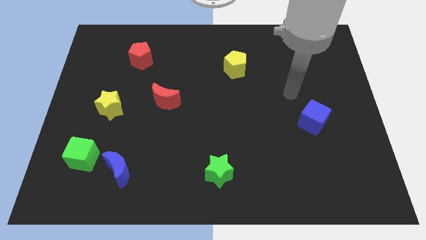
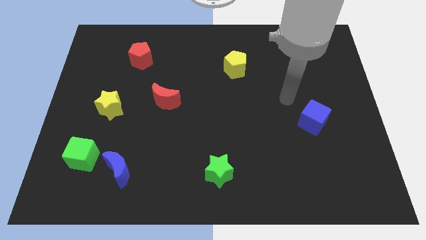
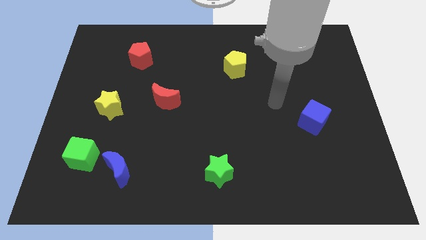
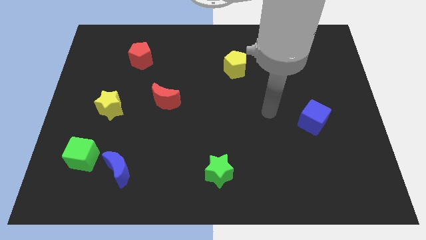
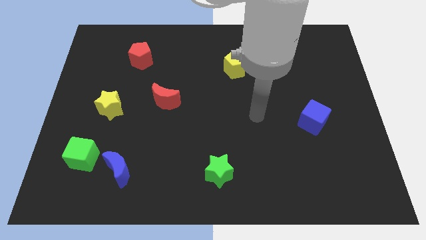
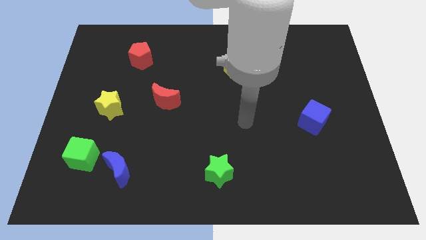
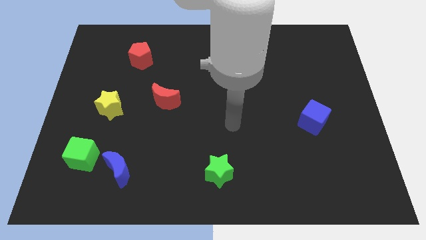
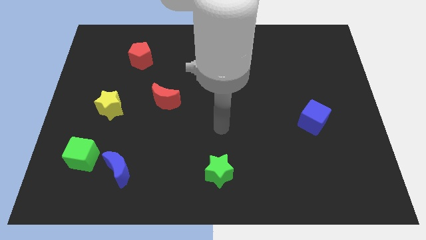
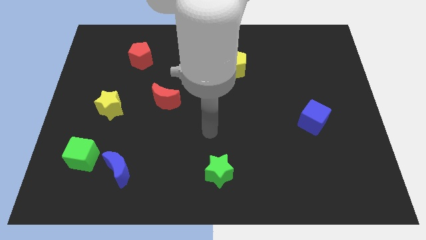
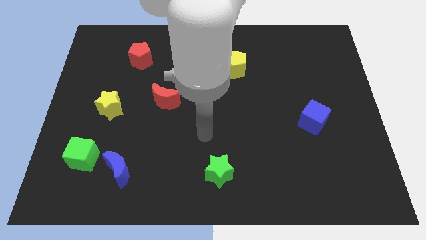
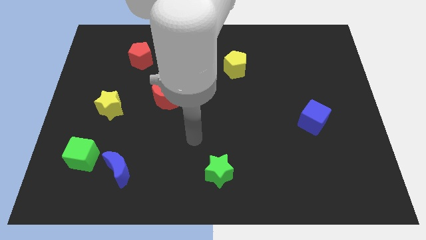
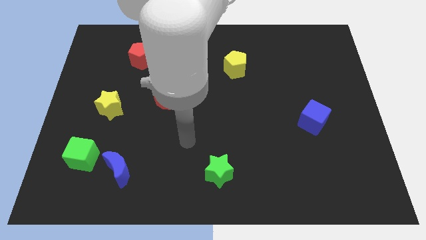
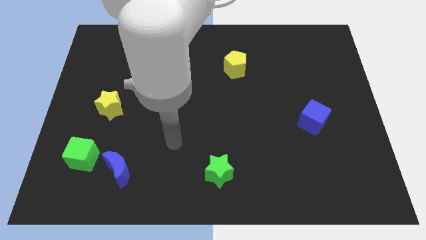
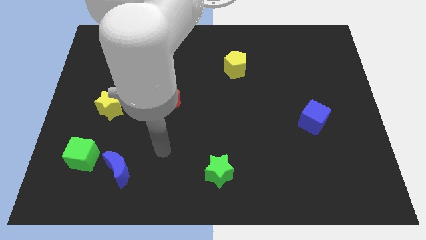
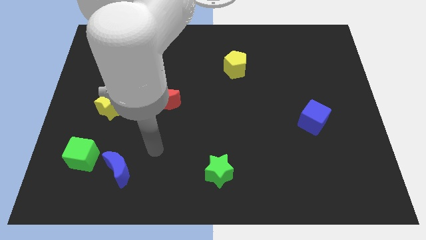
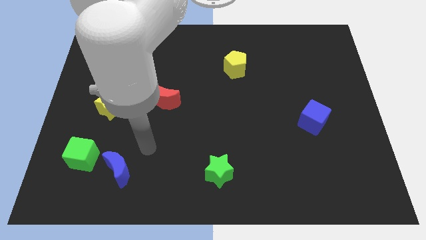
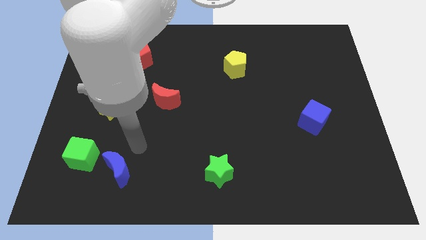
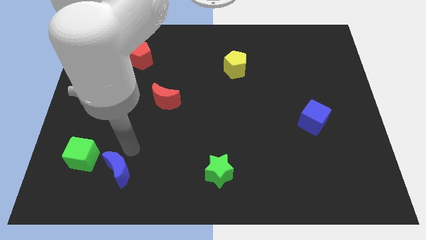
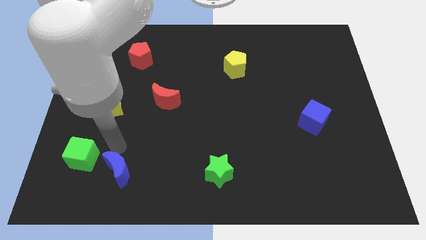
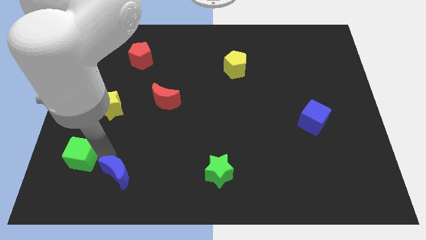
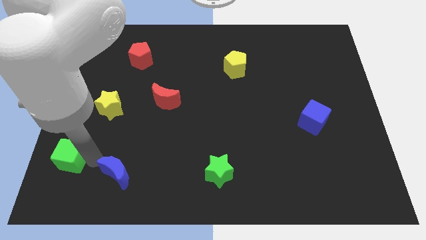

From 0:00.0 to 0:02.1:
move the blue moon away from the green cube

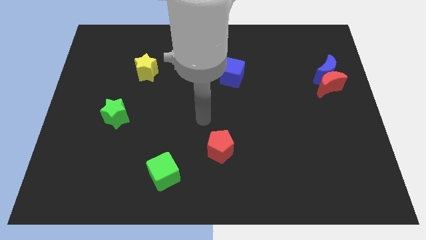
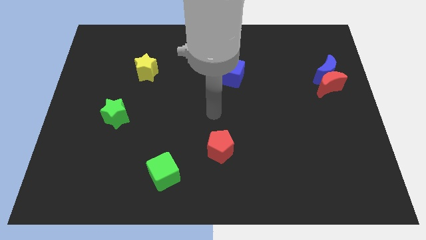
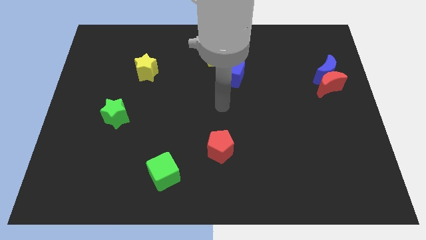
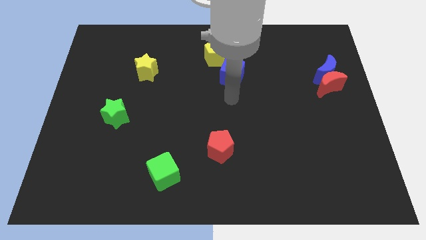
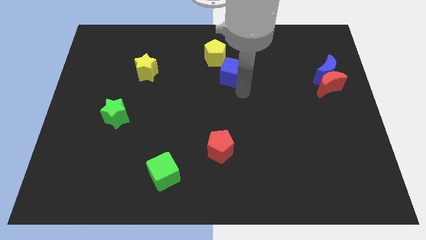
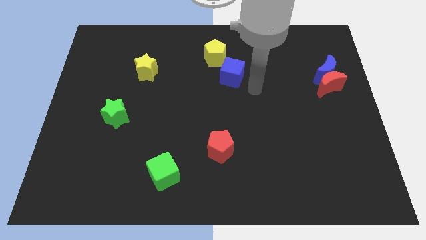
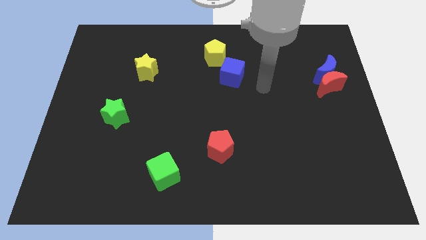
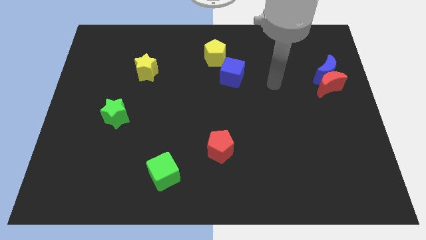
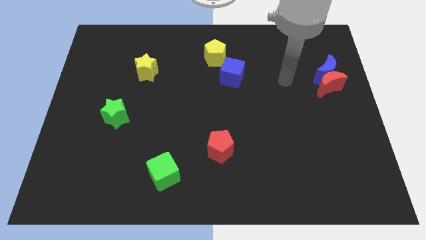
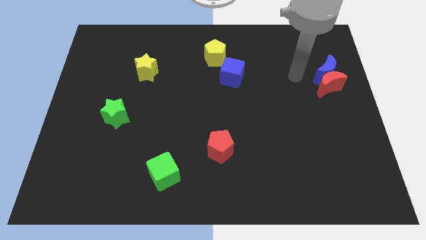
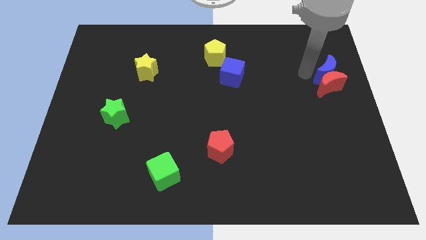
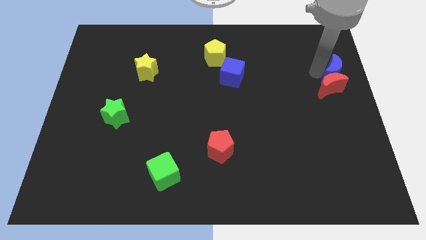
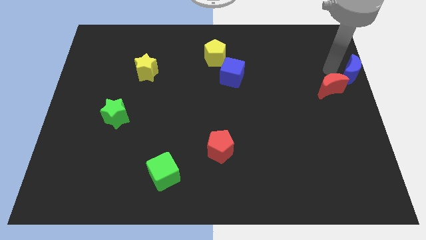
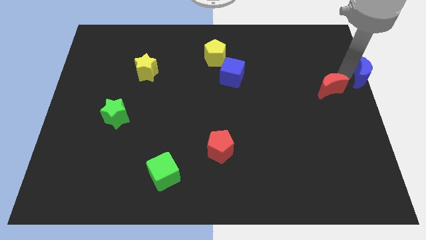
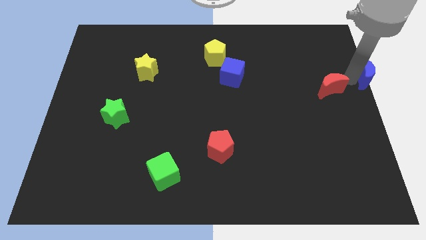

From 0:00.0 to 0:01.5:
move the red moon away from the blue moon

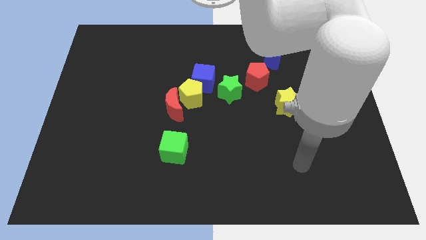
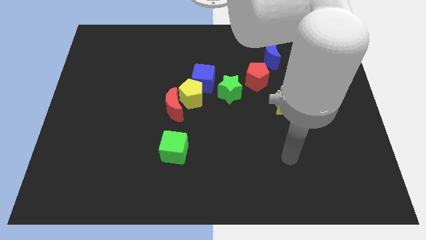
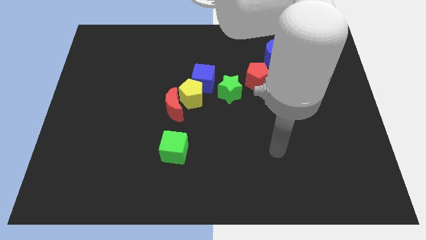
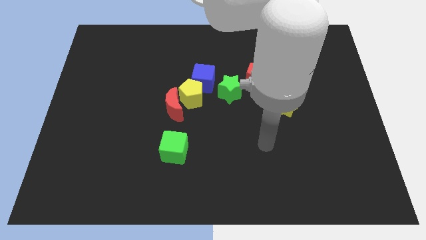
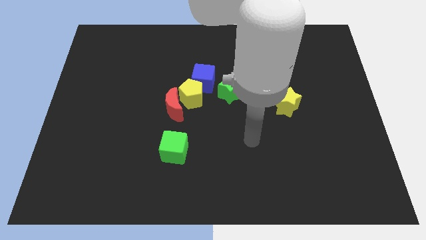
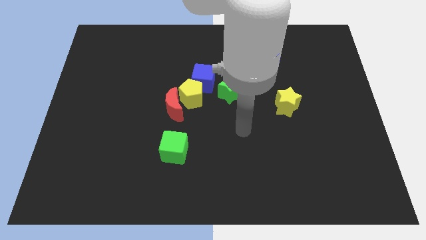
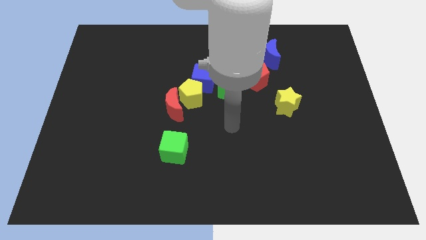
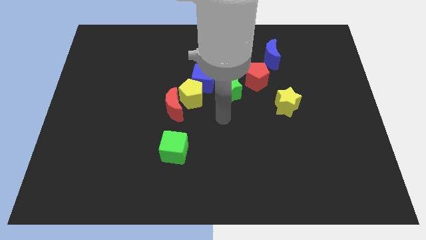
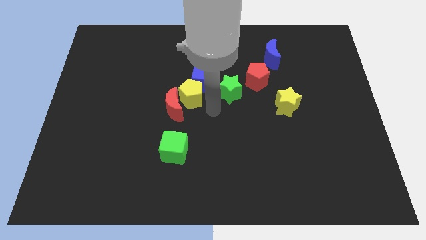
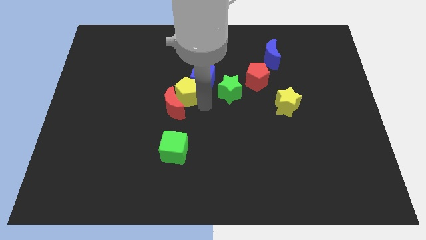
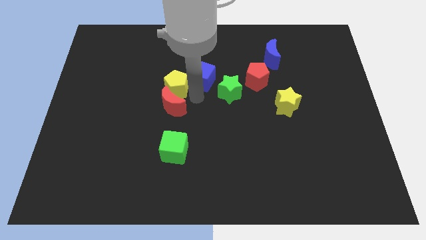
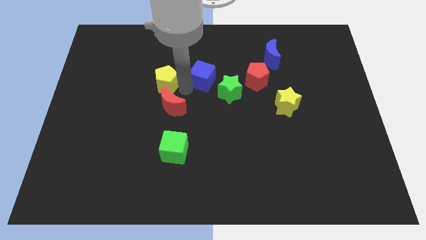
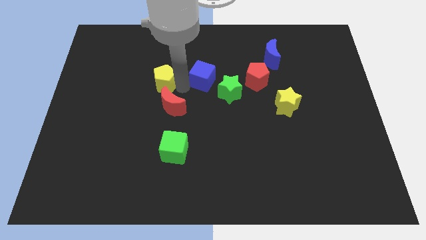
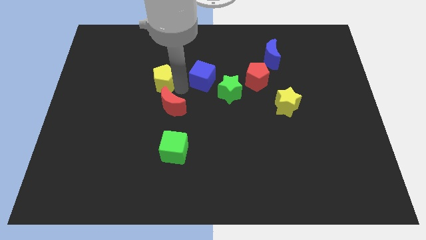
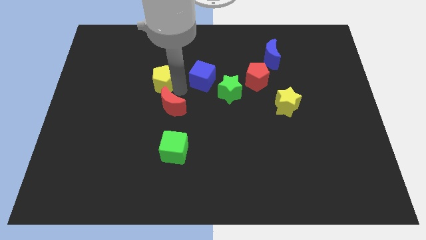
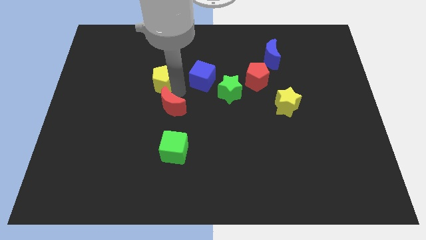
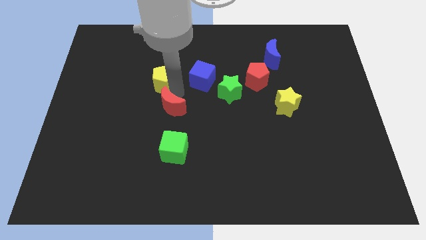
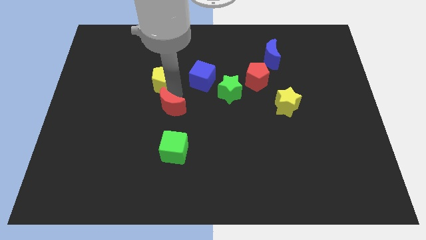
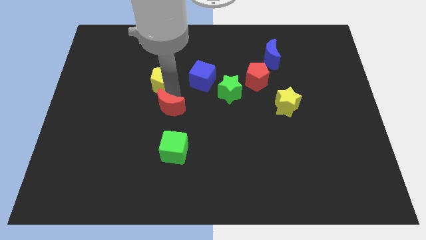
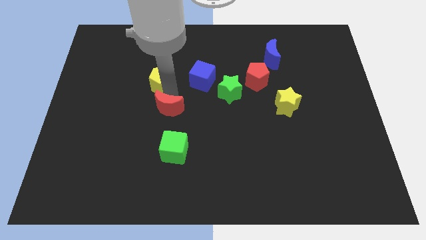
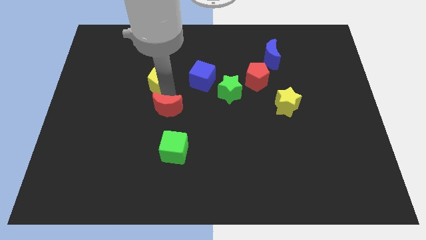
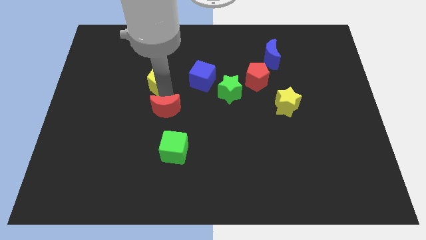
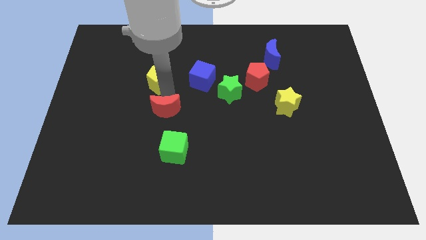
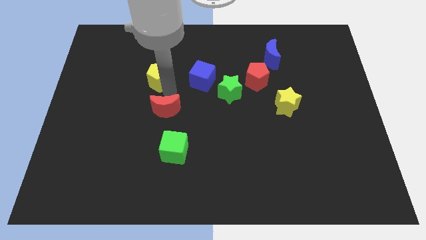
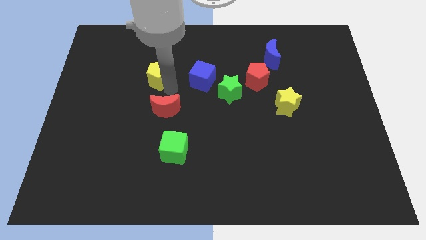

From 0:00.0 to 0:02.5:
move the red moon away from the yellow pentagon

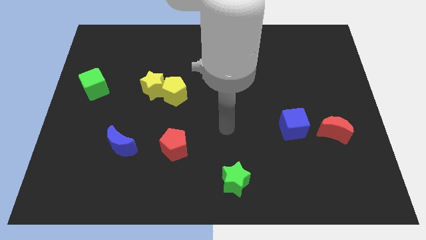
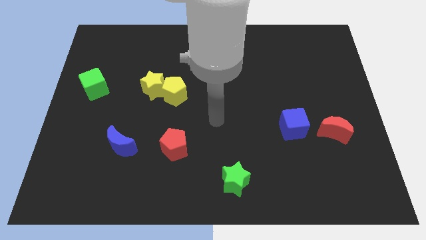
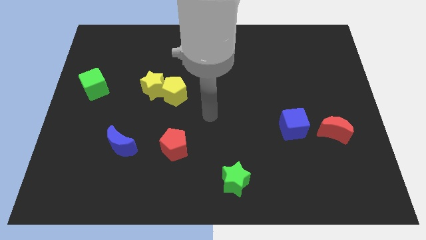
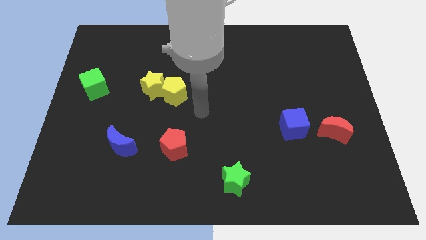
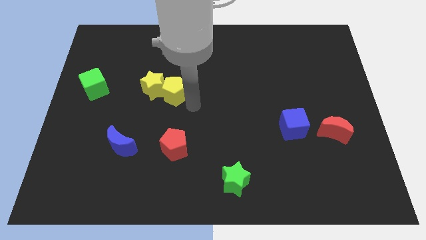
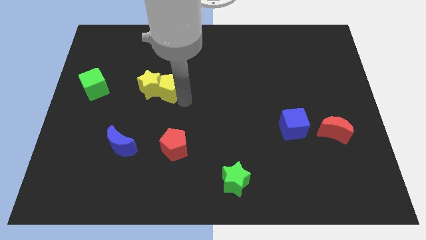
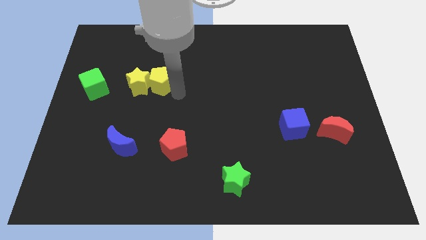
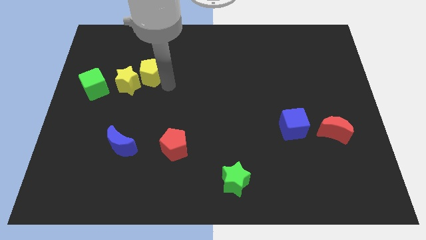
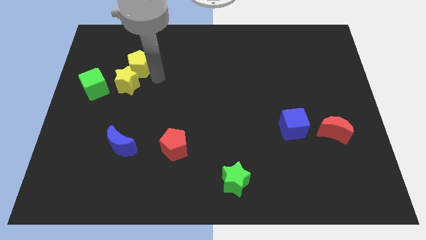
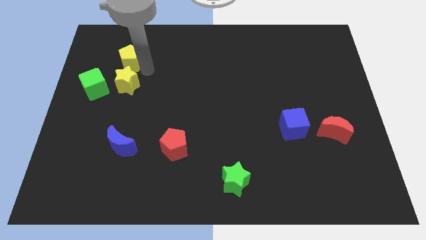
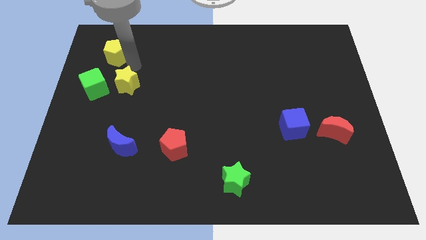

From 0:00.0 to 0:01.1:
separate the yellow star from the yellow pentagon

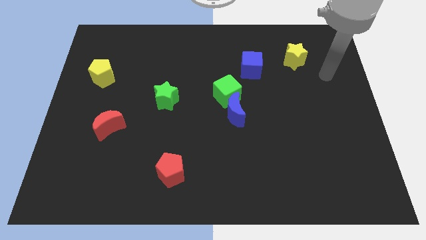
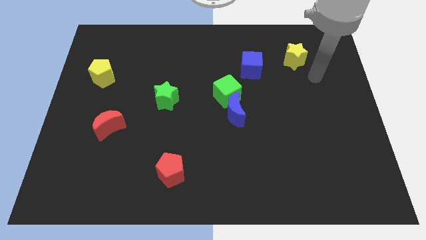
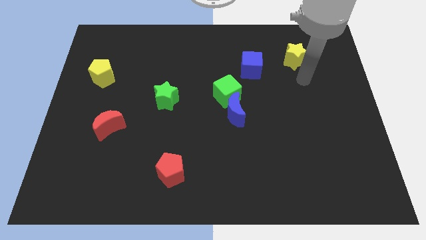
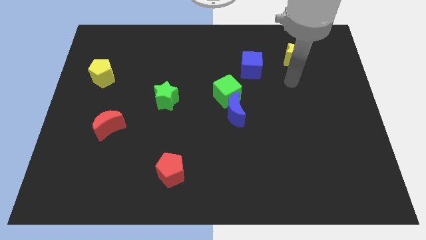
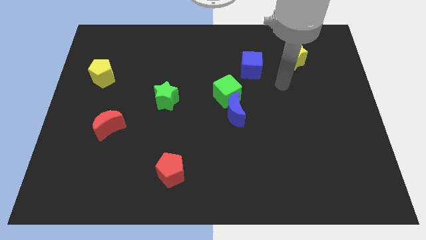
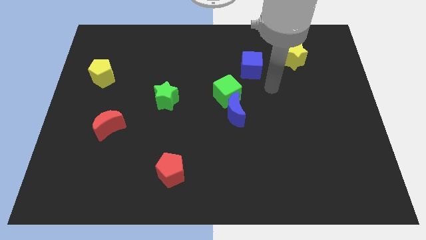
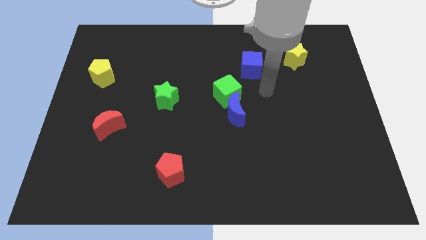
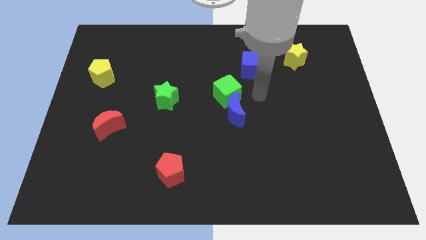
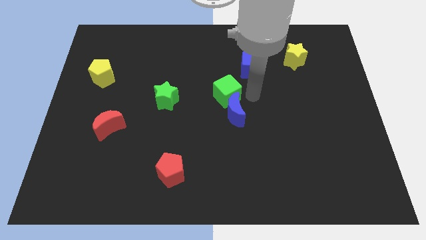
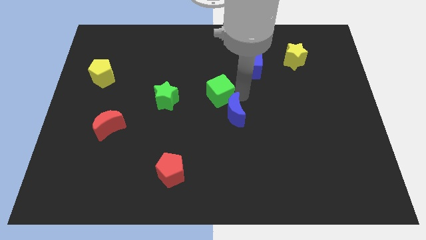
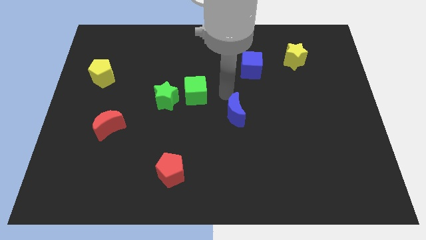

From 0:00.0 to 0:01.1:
pull the blue moon apart from the green cube

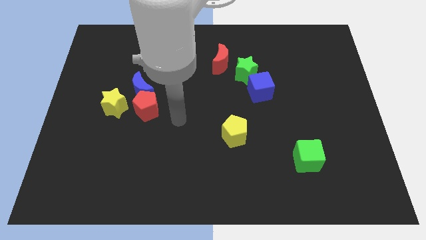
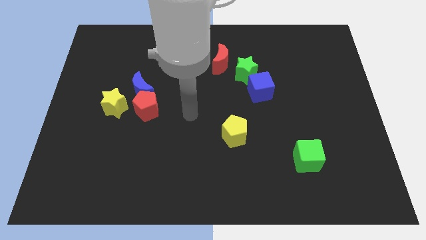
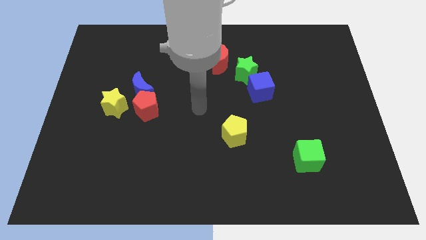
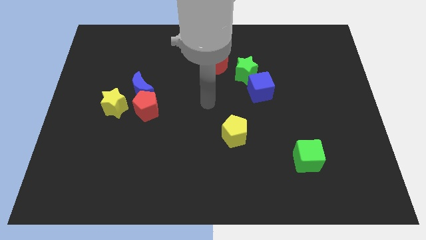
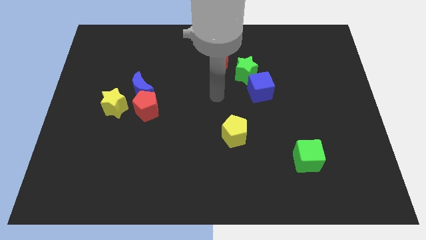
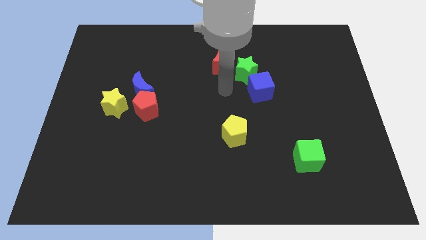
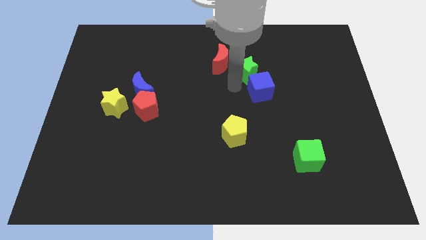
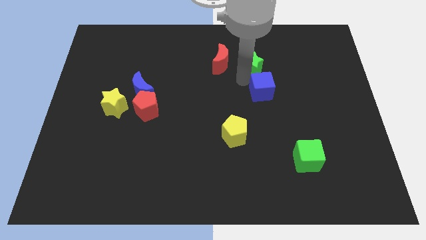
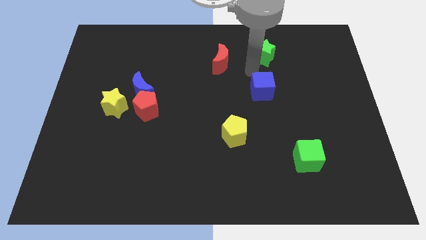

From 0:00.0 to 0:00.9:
move the blue cube away from the green star
